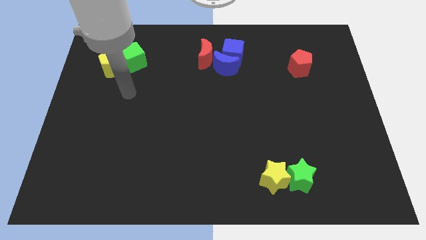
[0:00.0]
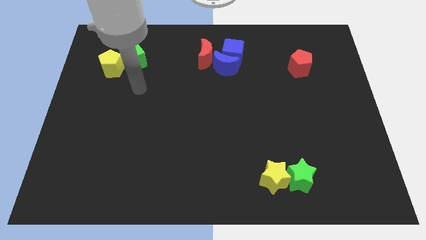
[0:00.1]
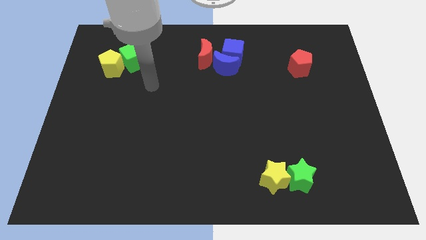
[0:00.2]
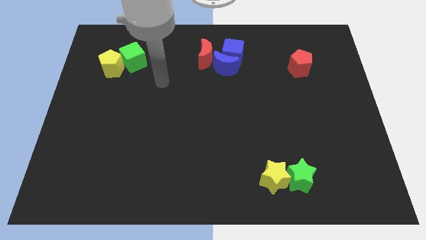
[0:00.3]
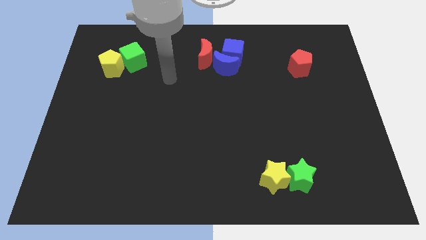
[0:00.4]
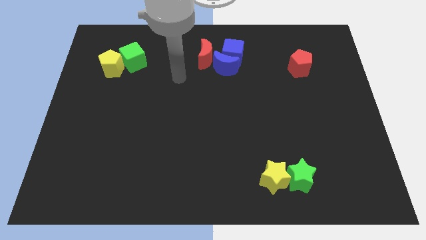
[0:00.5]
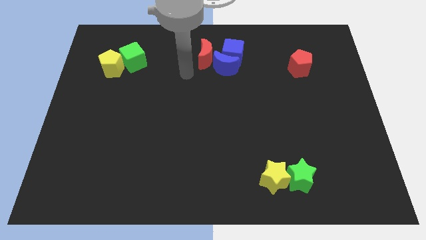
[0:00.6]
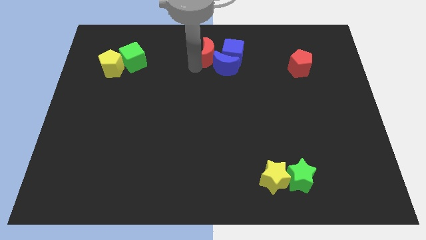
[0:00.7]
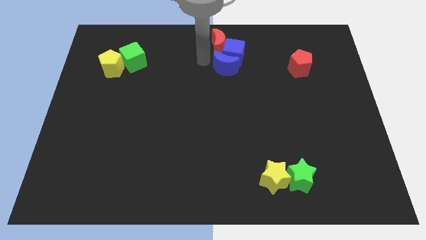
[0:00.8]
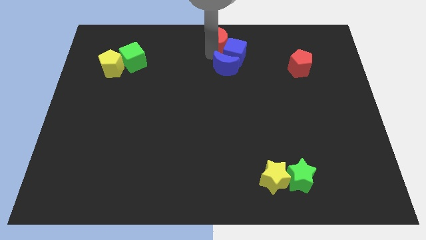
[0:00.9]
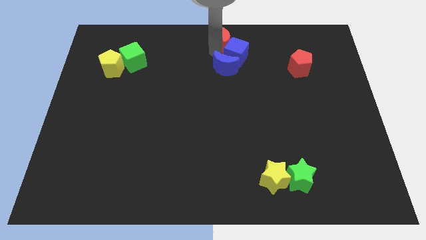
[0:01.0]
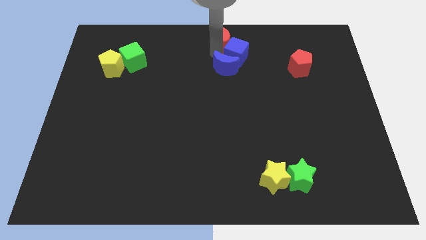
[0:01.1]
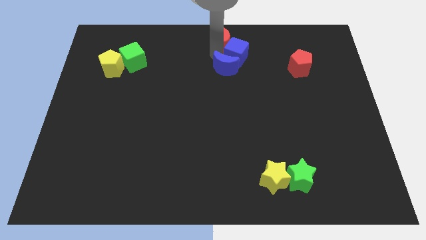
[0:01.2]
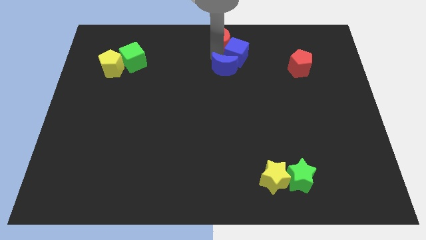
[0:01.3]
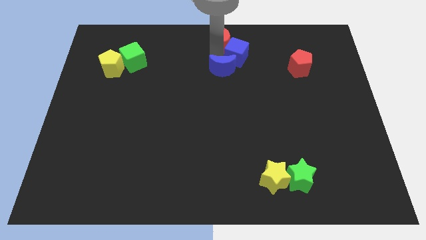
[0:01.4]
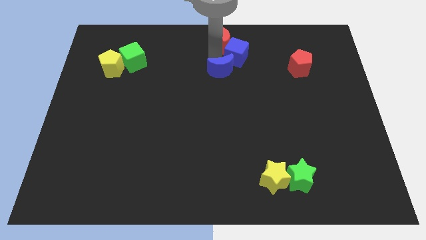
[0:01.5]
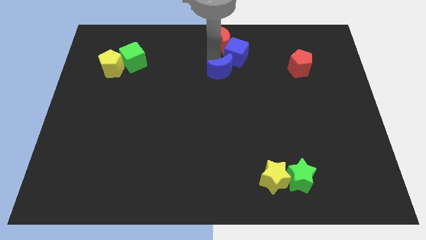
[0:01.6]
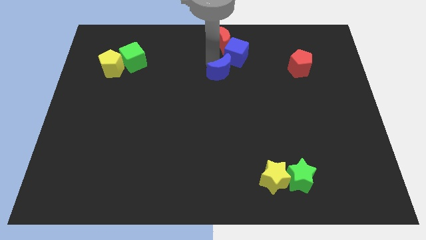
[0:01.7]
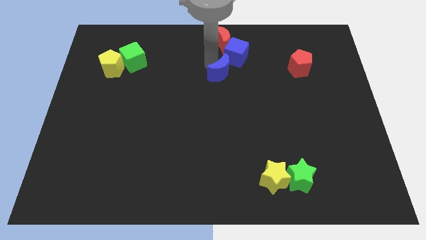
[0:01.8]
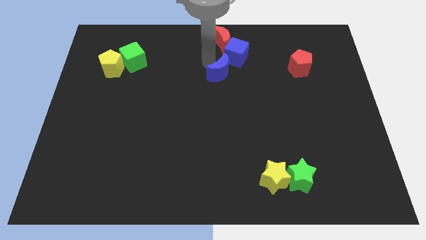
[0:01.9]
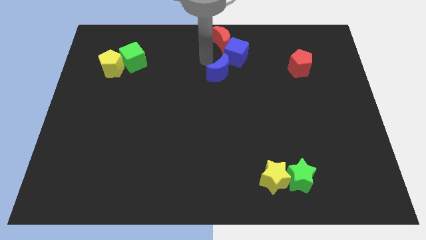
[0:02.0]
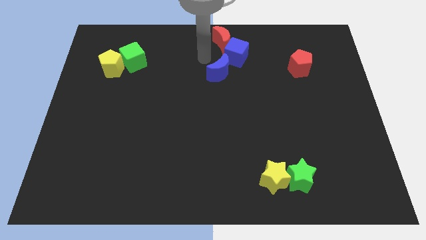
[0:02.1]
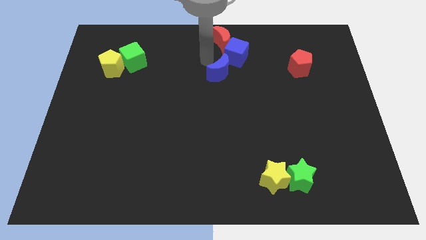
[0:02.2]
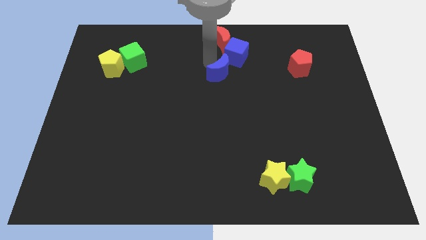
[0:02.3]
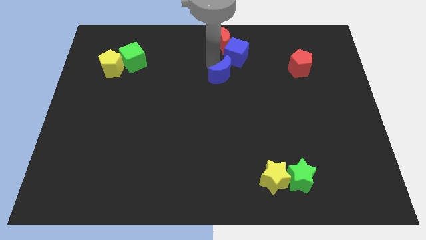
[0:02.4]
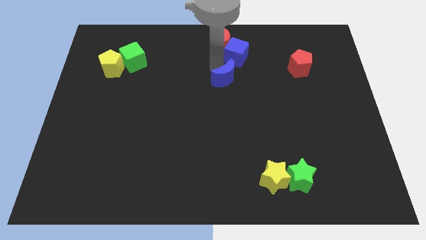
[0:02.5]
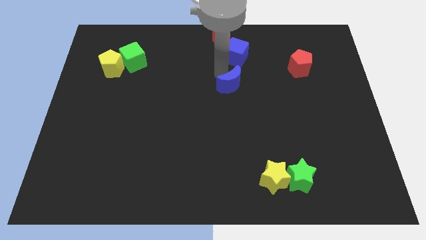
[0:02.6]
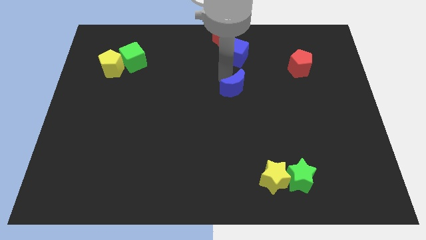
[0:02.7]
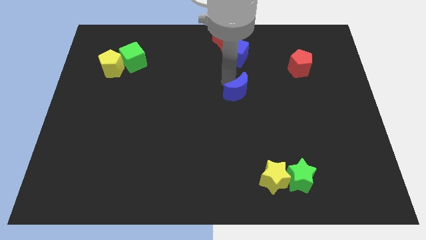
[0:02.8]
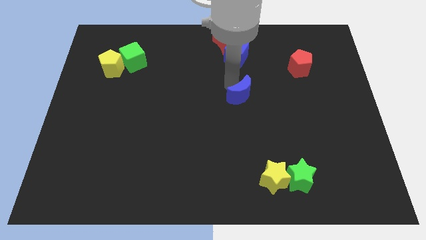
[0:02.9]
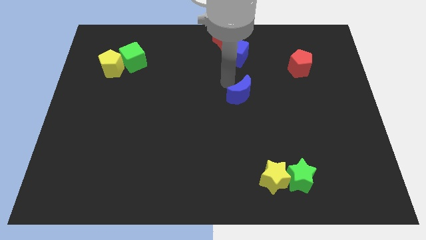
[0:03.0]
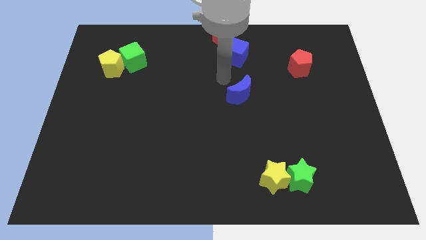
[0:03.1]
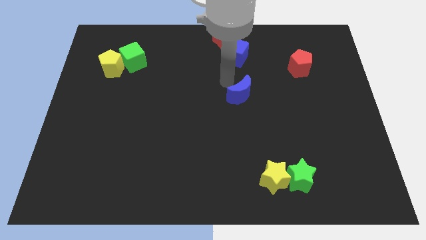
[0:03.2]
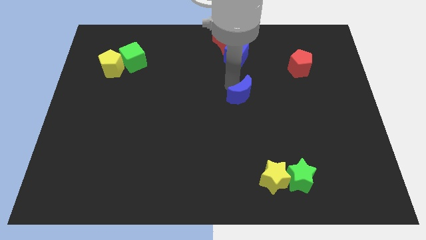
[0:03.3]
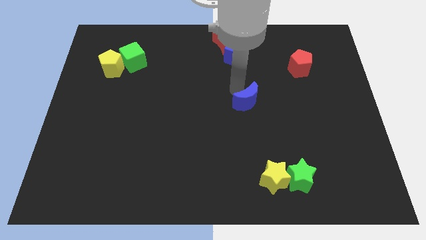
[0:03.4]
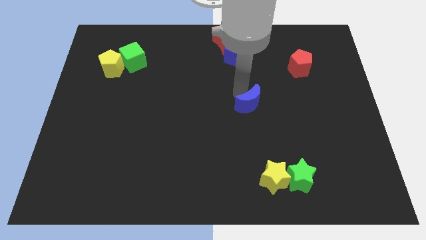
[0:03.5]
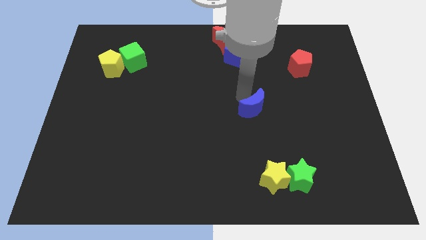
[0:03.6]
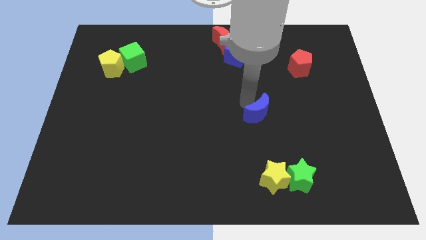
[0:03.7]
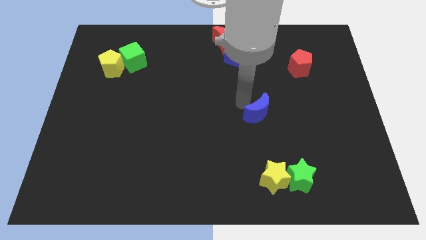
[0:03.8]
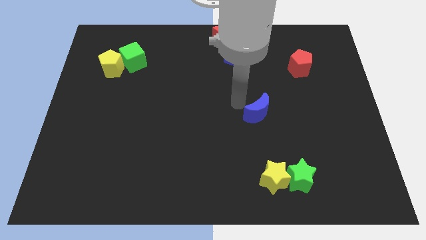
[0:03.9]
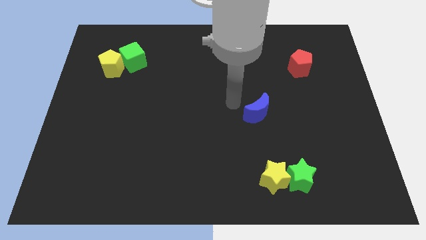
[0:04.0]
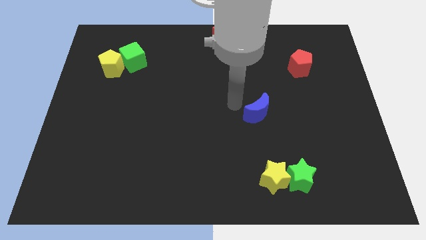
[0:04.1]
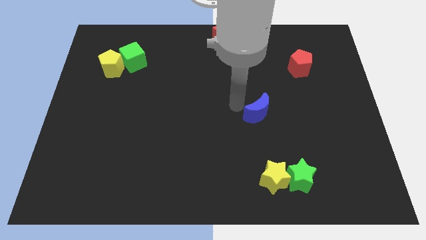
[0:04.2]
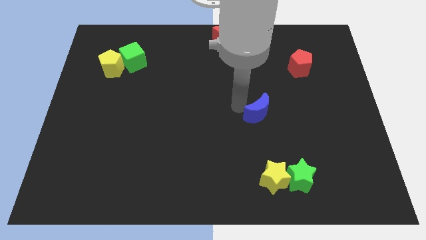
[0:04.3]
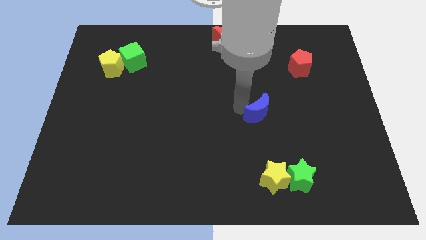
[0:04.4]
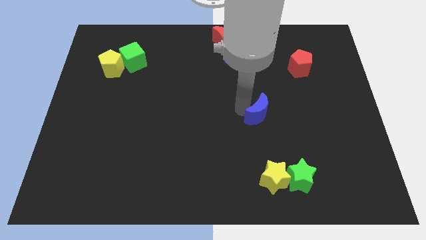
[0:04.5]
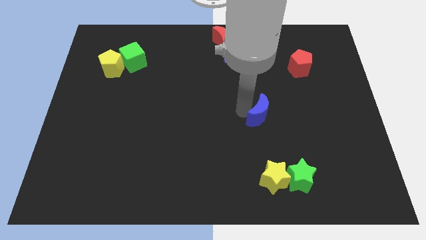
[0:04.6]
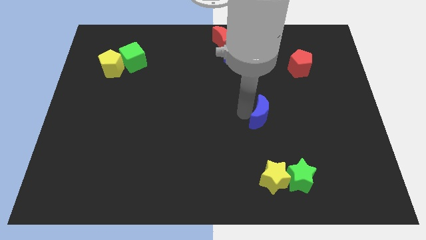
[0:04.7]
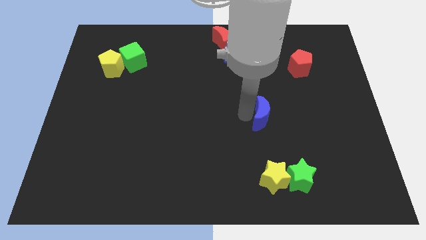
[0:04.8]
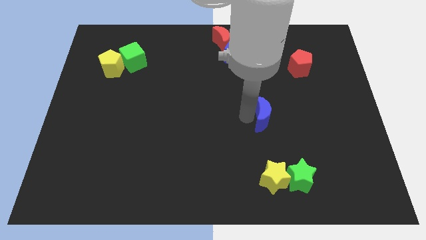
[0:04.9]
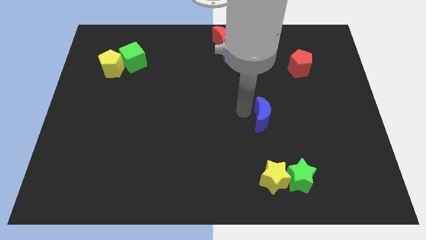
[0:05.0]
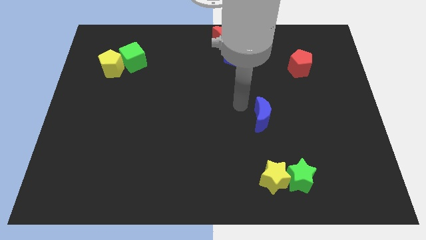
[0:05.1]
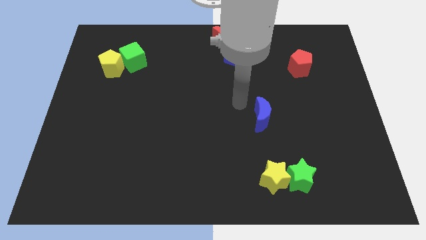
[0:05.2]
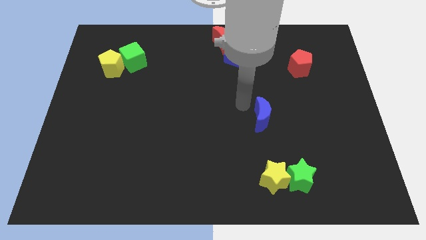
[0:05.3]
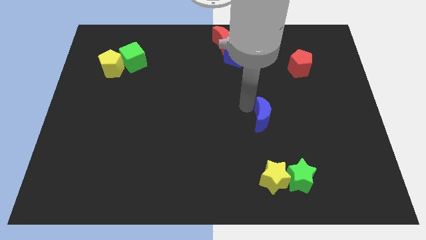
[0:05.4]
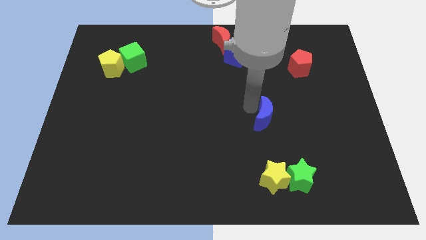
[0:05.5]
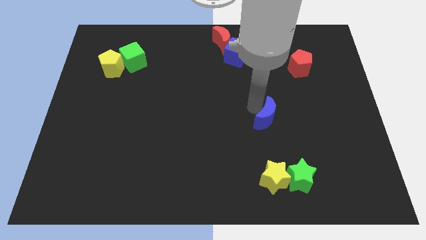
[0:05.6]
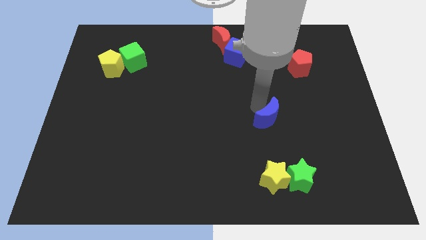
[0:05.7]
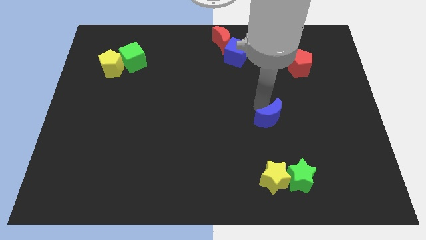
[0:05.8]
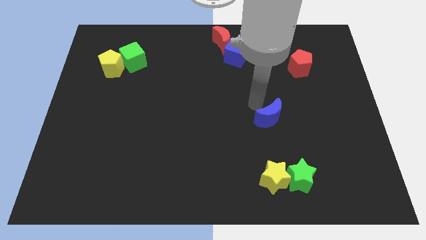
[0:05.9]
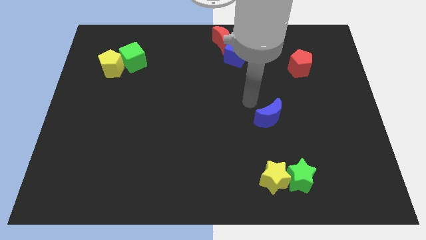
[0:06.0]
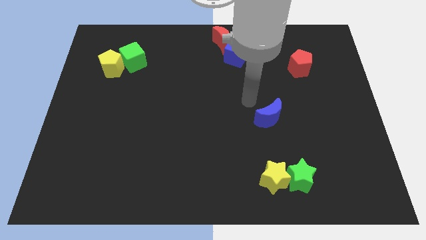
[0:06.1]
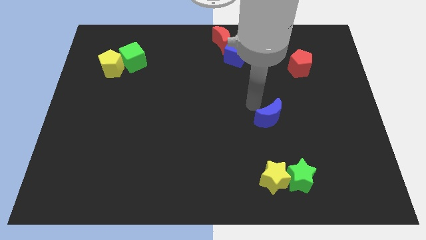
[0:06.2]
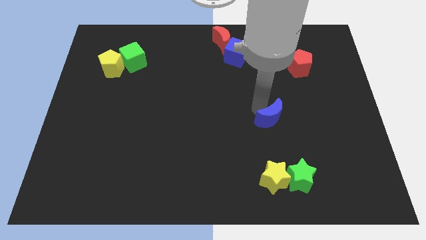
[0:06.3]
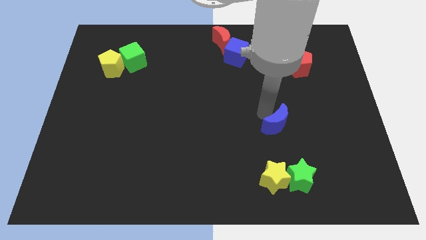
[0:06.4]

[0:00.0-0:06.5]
push the blue moon above the green star

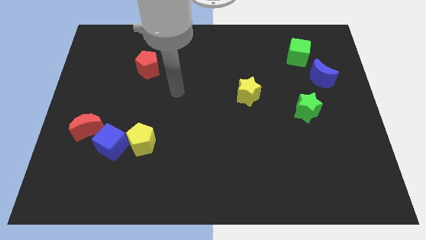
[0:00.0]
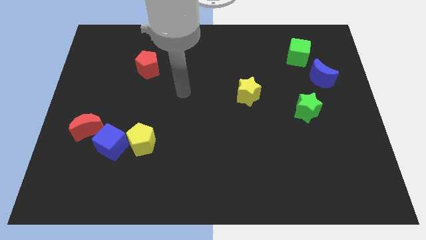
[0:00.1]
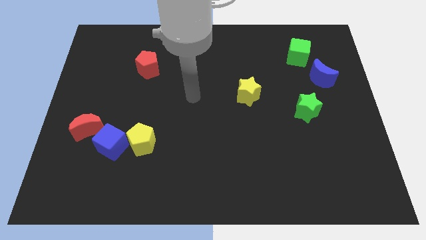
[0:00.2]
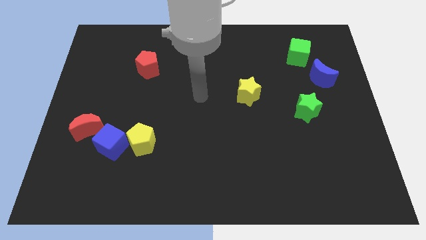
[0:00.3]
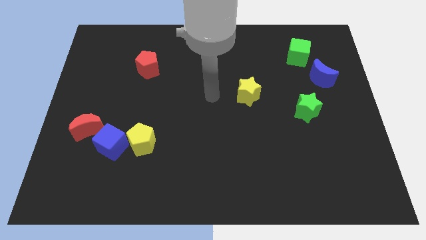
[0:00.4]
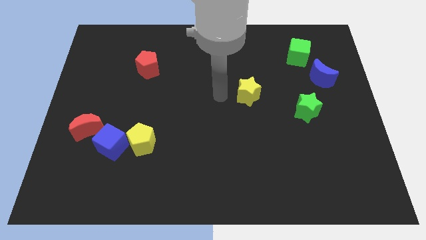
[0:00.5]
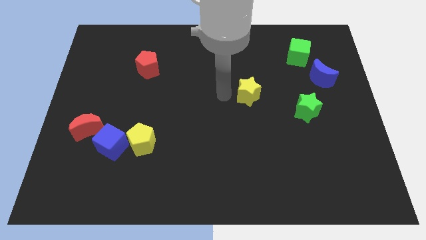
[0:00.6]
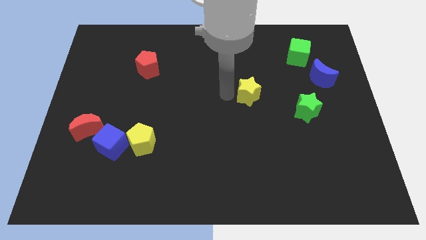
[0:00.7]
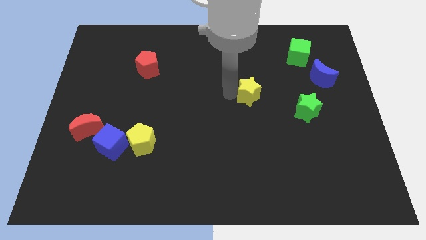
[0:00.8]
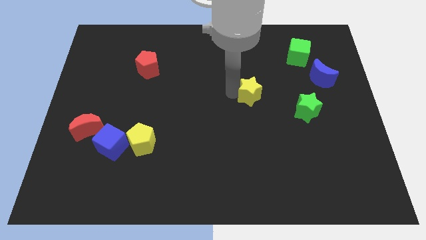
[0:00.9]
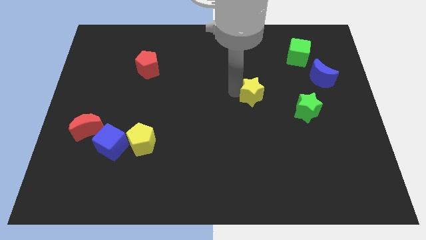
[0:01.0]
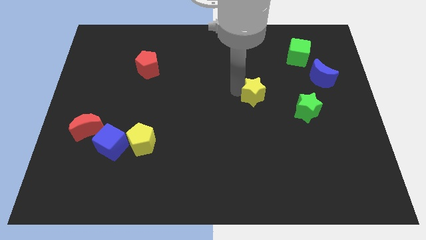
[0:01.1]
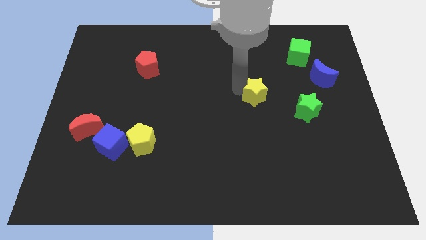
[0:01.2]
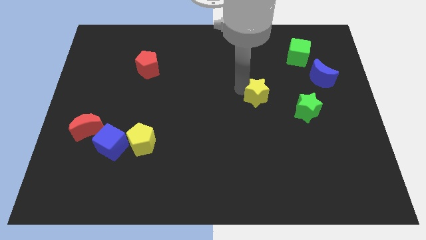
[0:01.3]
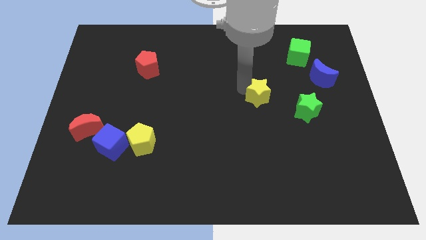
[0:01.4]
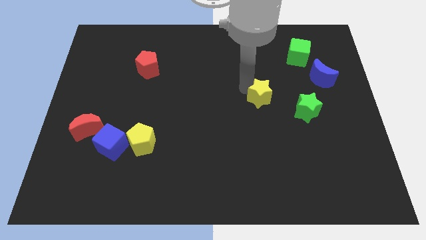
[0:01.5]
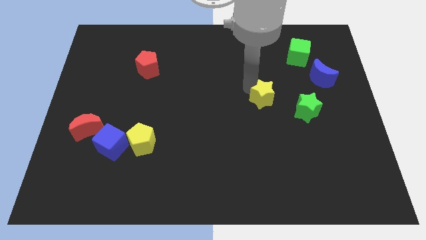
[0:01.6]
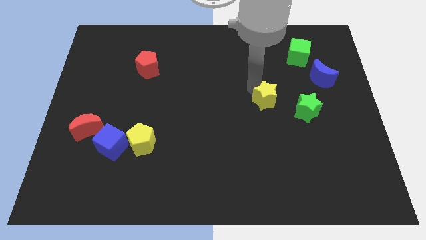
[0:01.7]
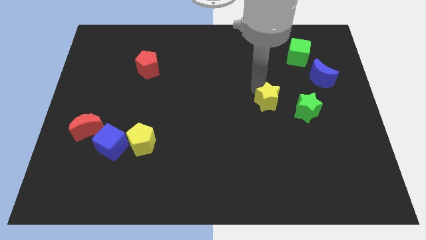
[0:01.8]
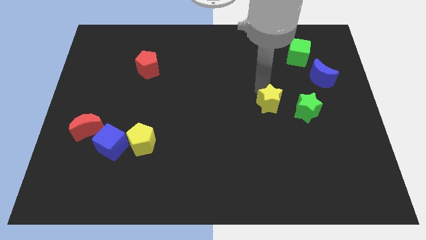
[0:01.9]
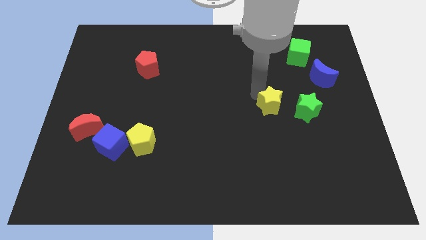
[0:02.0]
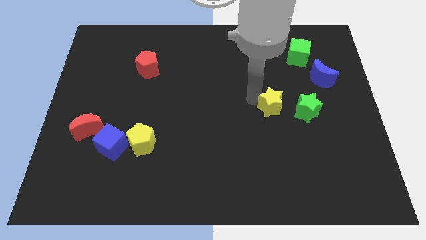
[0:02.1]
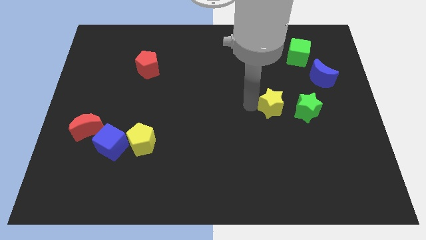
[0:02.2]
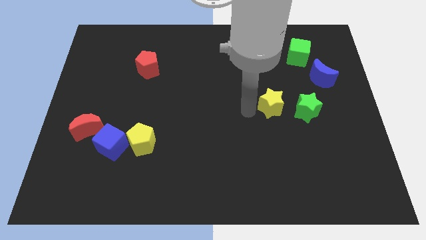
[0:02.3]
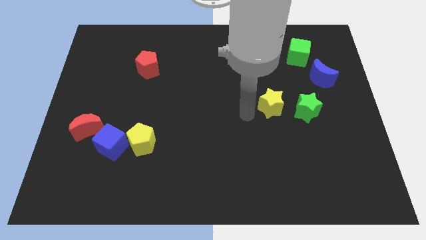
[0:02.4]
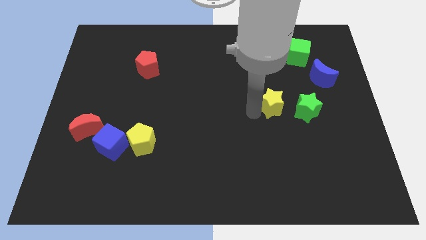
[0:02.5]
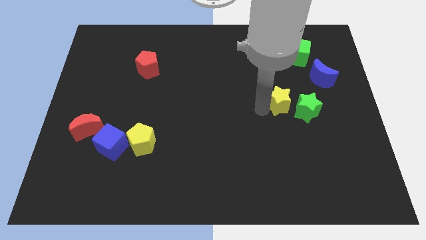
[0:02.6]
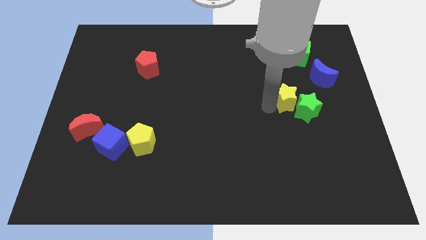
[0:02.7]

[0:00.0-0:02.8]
move the yellow star diagonally down and to the left of the blue moon
